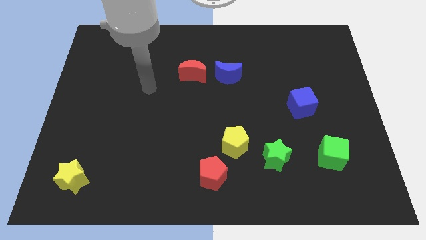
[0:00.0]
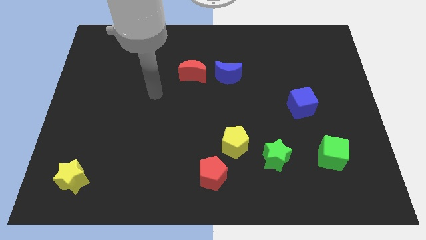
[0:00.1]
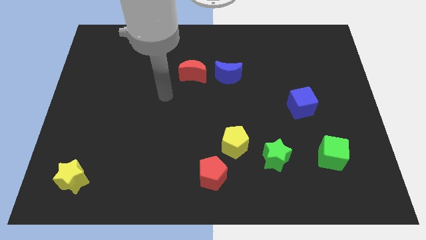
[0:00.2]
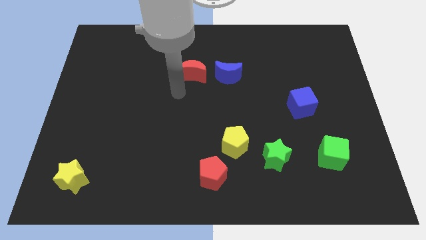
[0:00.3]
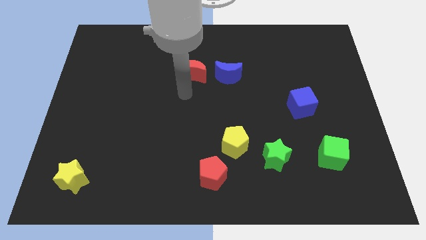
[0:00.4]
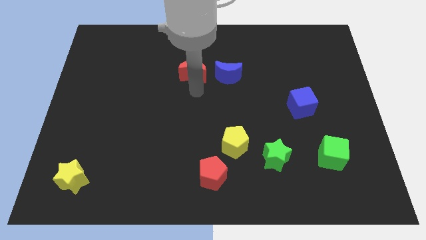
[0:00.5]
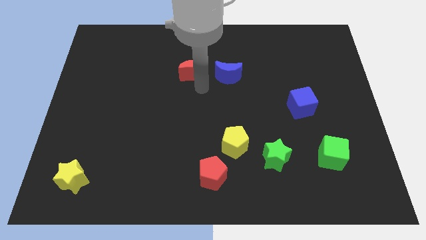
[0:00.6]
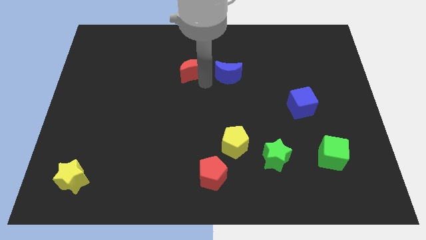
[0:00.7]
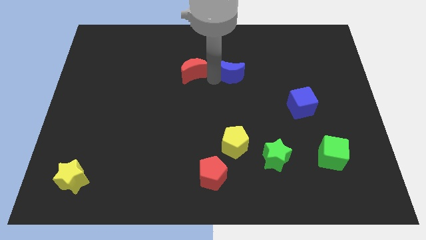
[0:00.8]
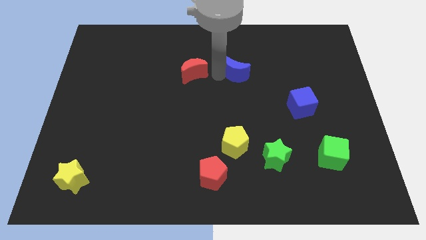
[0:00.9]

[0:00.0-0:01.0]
separate the red moon from the blue moon

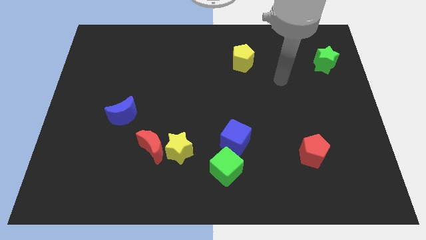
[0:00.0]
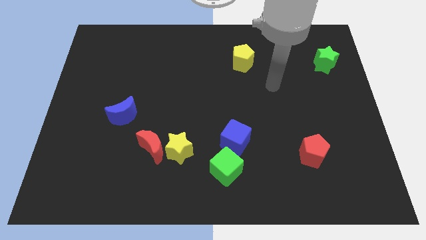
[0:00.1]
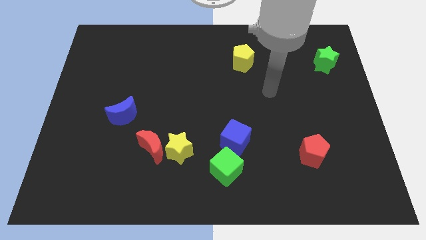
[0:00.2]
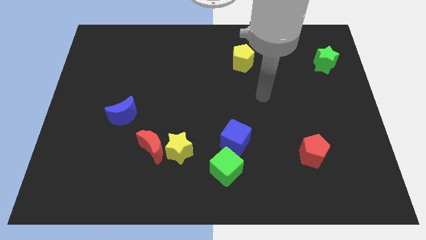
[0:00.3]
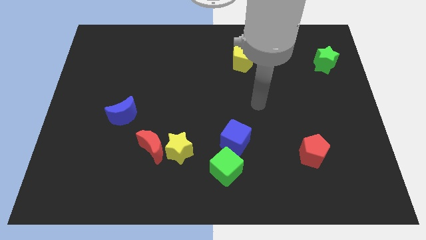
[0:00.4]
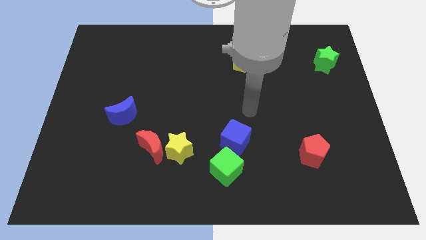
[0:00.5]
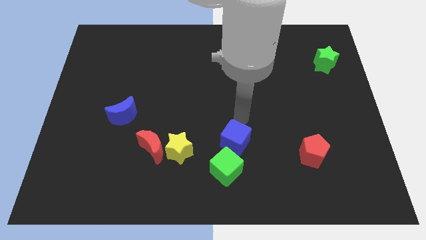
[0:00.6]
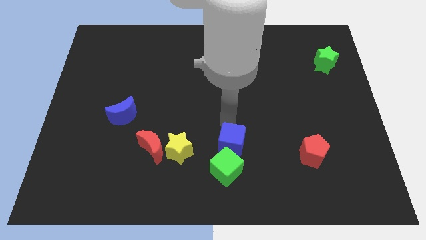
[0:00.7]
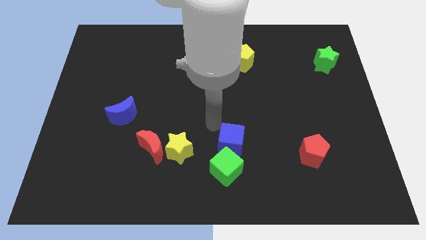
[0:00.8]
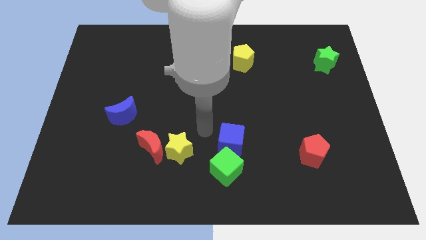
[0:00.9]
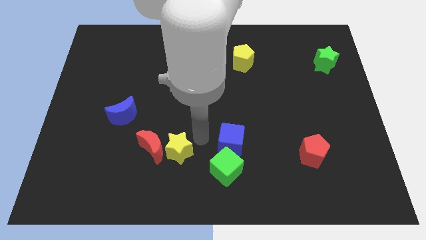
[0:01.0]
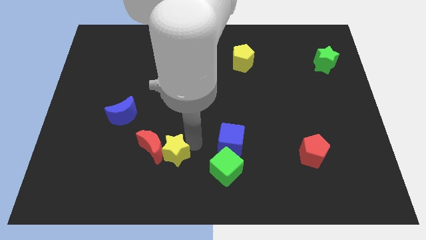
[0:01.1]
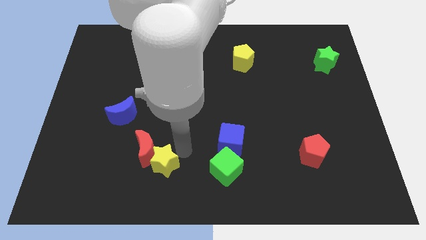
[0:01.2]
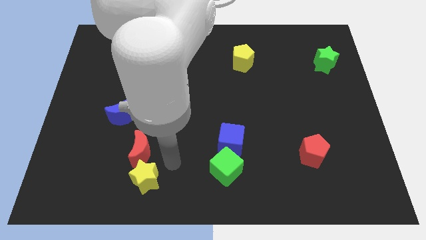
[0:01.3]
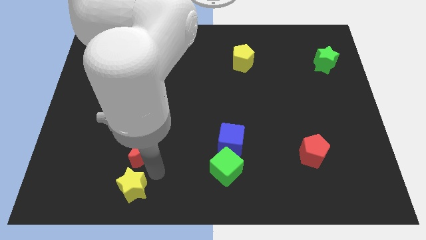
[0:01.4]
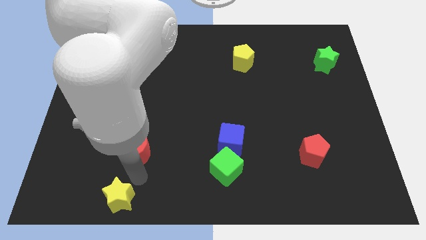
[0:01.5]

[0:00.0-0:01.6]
separate the red moon from the yellow star

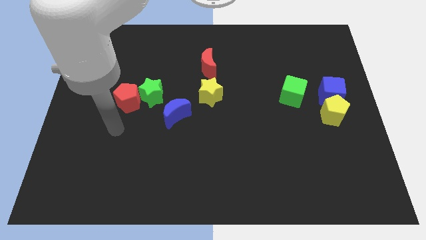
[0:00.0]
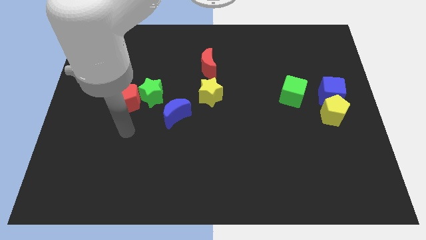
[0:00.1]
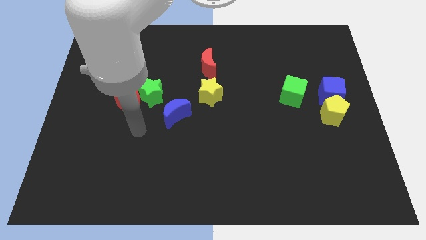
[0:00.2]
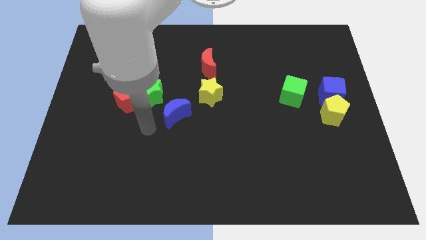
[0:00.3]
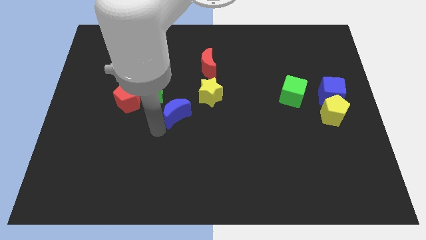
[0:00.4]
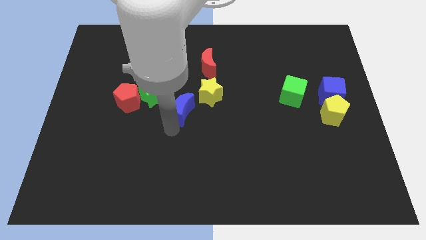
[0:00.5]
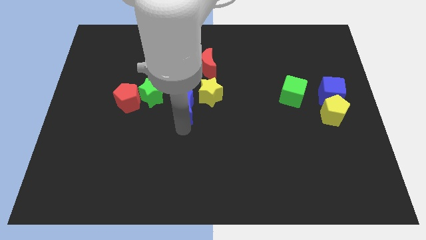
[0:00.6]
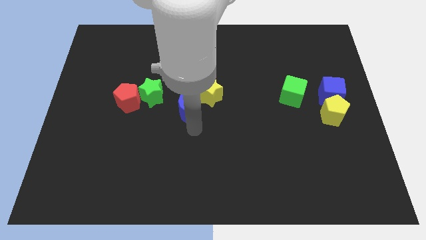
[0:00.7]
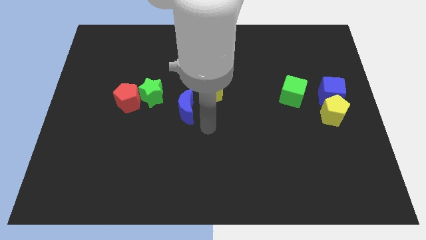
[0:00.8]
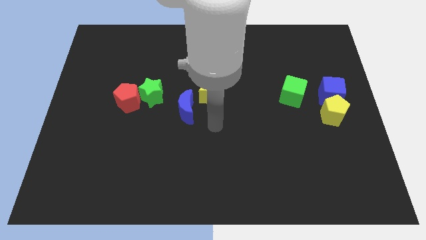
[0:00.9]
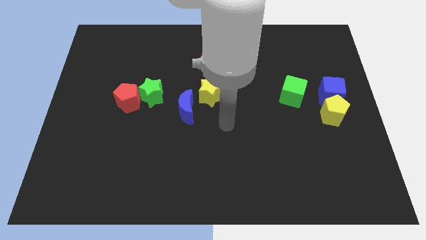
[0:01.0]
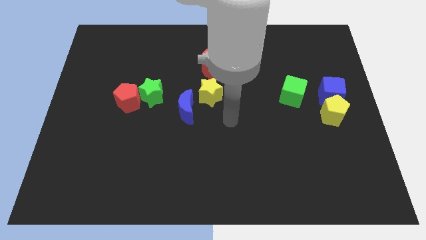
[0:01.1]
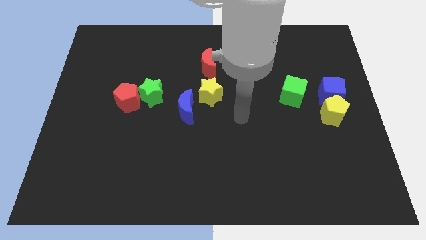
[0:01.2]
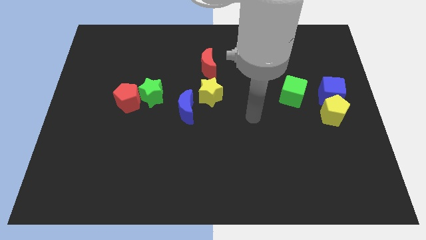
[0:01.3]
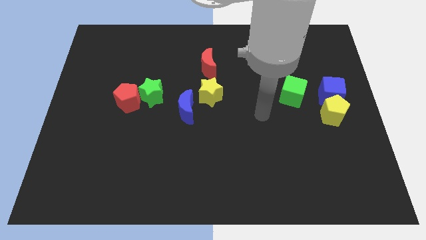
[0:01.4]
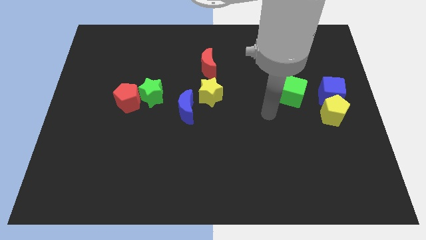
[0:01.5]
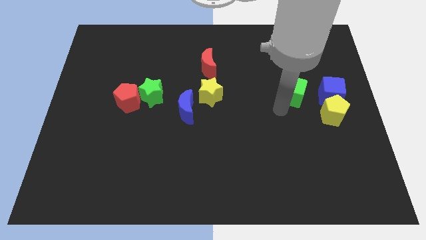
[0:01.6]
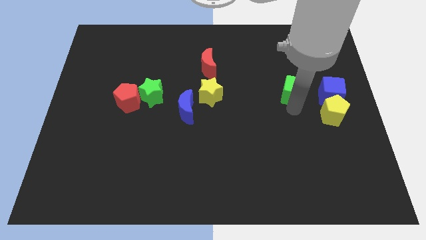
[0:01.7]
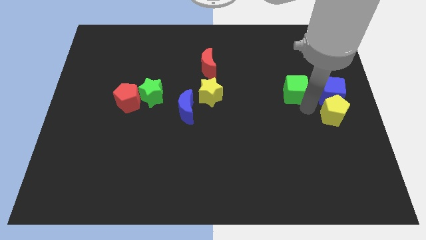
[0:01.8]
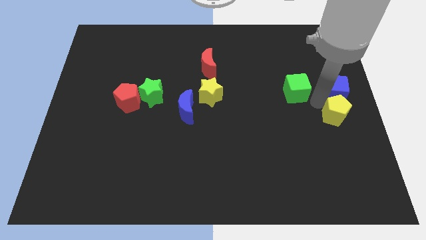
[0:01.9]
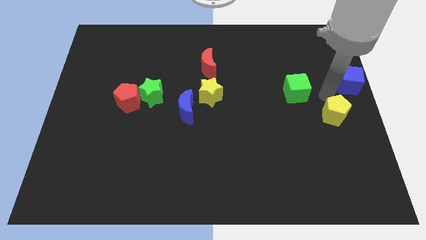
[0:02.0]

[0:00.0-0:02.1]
pull the yellow pentagon apart from the blue cube

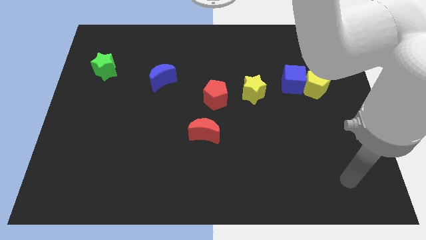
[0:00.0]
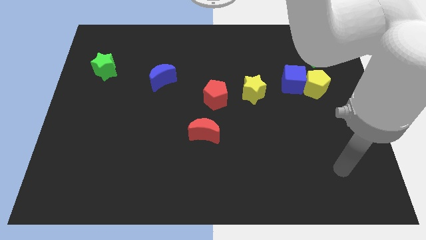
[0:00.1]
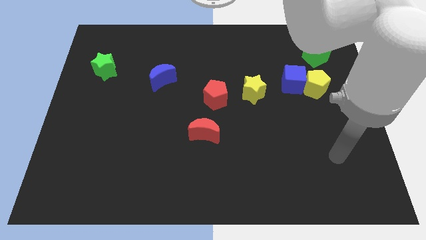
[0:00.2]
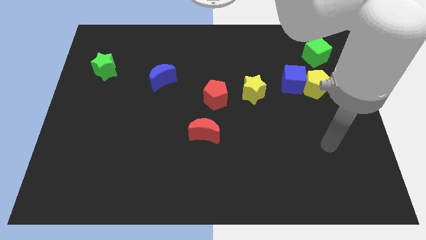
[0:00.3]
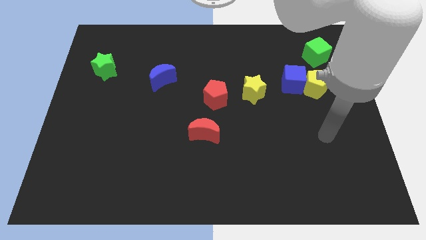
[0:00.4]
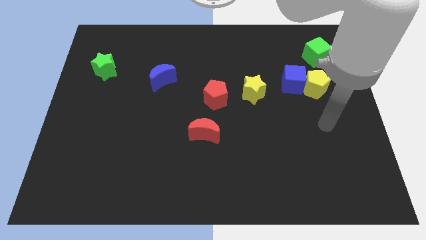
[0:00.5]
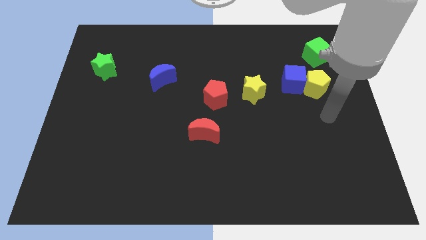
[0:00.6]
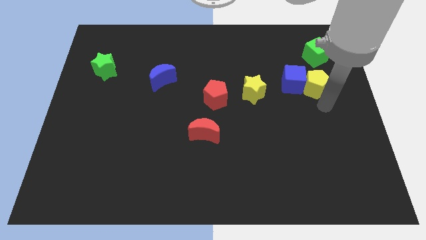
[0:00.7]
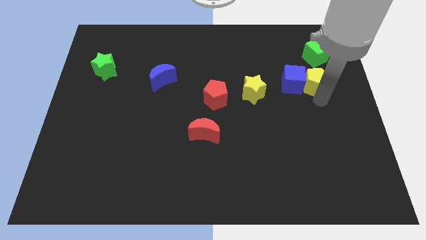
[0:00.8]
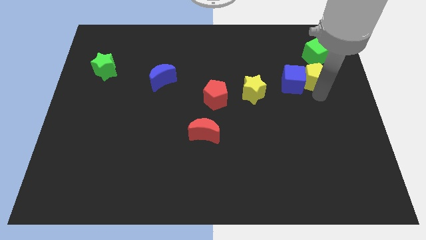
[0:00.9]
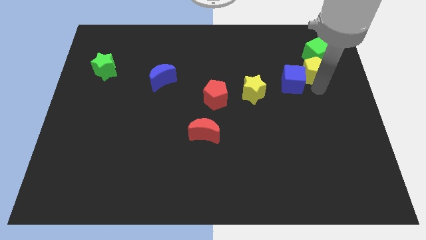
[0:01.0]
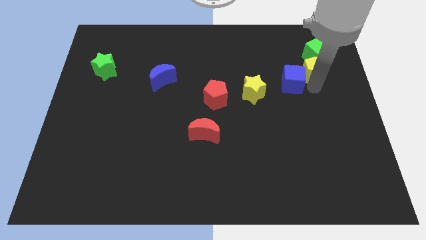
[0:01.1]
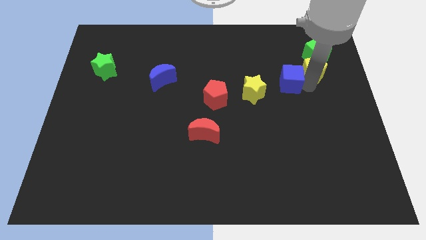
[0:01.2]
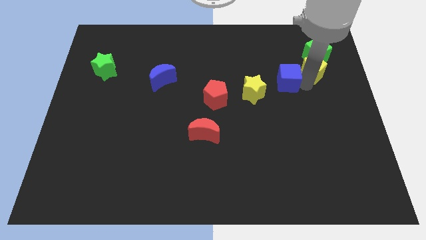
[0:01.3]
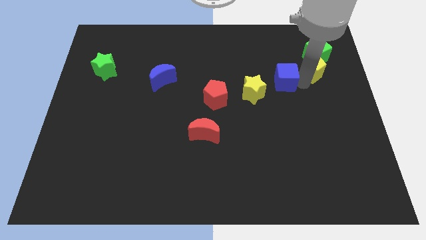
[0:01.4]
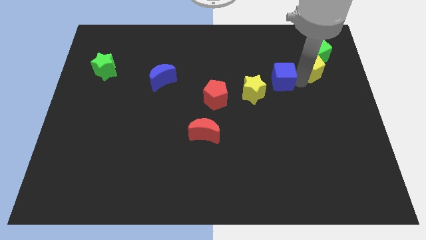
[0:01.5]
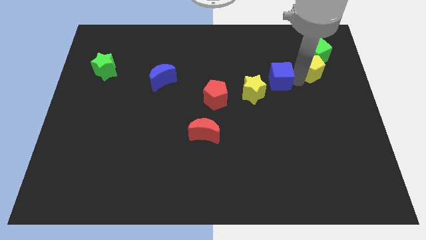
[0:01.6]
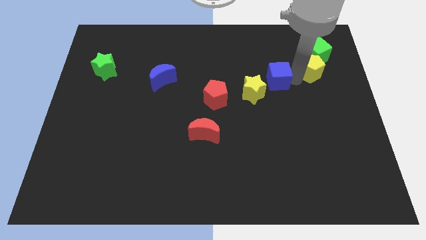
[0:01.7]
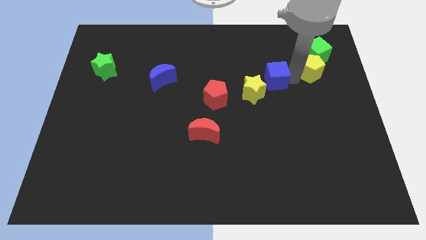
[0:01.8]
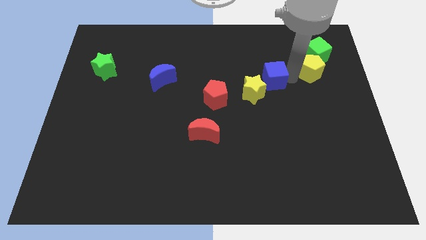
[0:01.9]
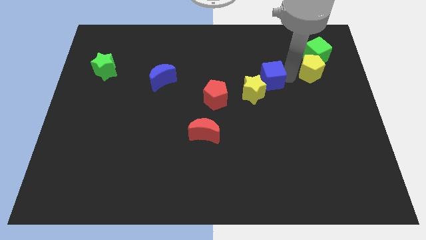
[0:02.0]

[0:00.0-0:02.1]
move the blue cube away from the yellow pentagon

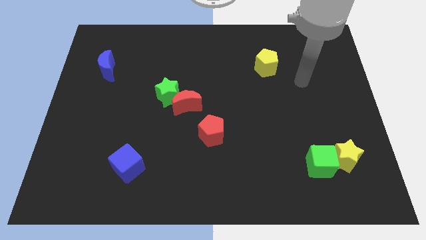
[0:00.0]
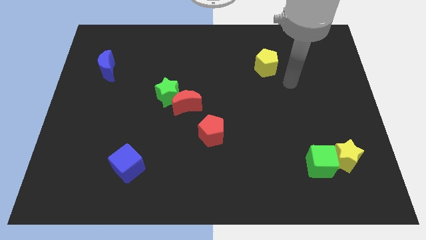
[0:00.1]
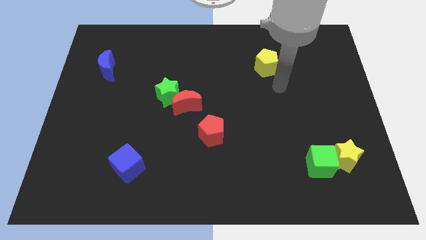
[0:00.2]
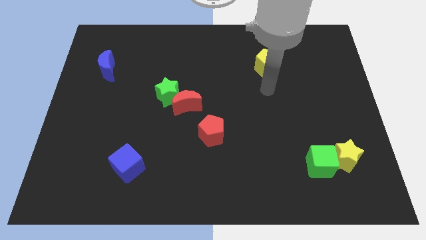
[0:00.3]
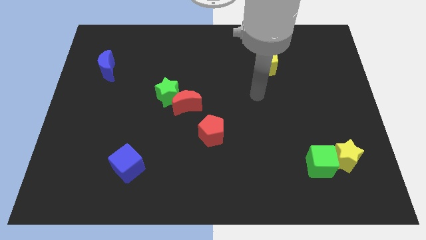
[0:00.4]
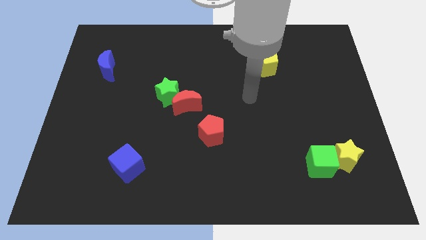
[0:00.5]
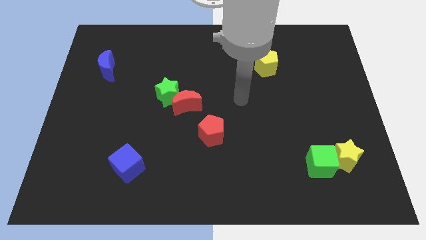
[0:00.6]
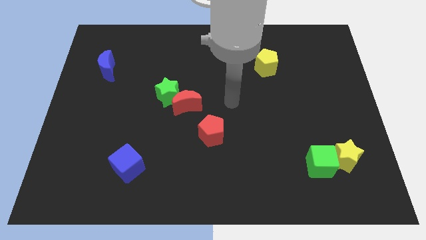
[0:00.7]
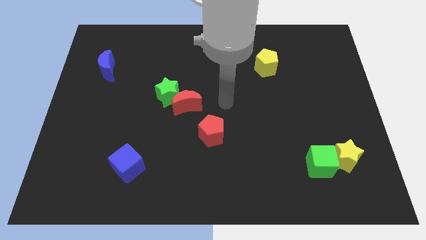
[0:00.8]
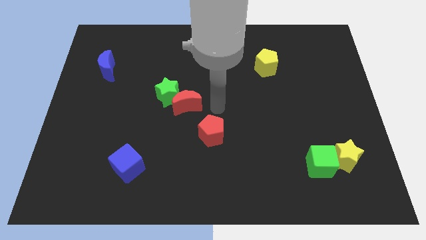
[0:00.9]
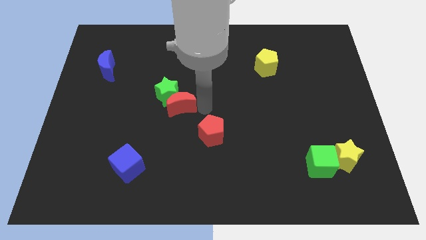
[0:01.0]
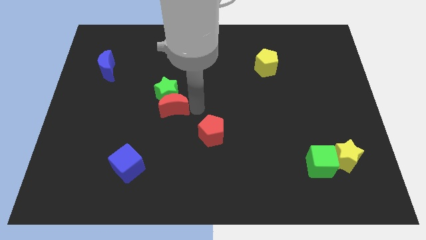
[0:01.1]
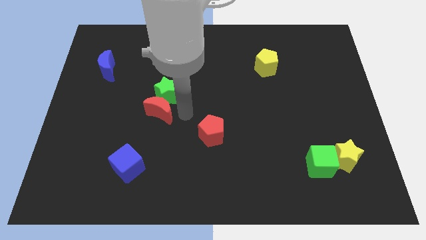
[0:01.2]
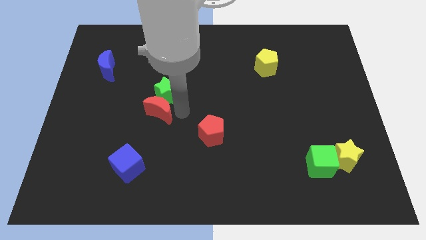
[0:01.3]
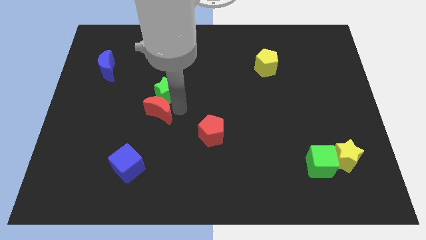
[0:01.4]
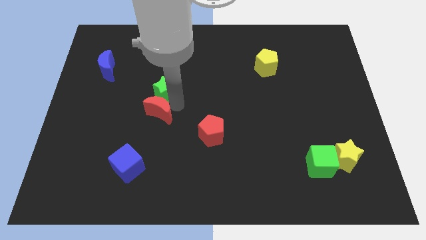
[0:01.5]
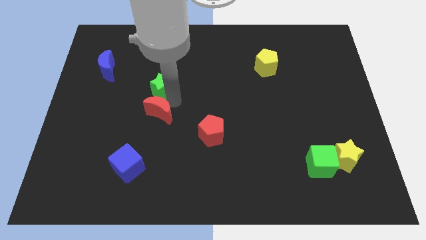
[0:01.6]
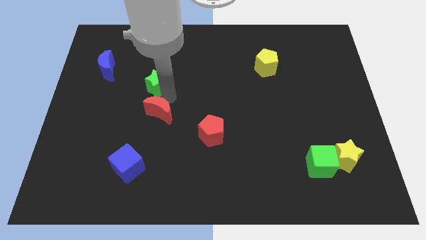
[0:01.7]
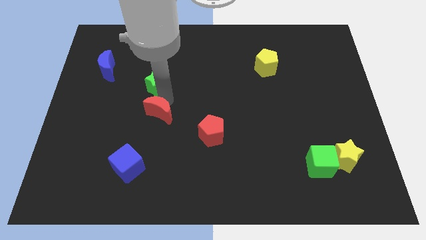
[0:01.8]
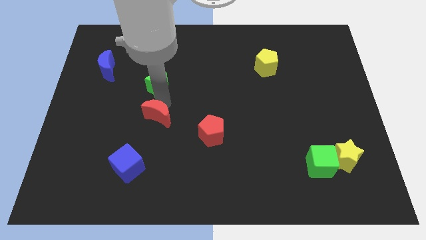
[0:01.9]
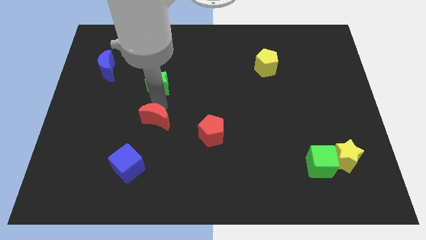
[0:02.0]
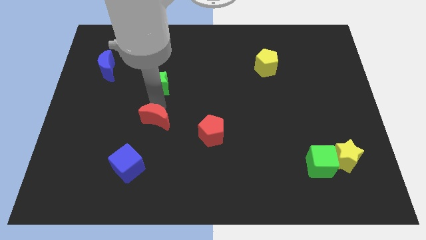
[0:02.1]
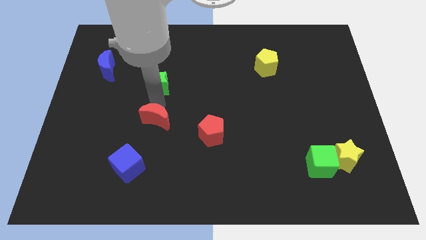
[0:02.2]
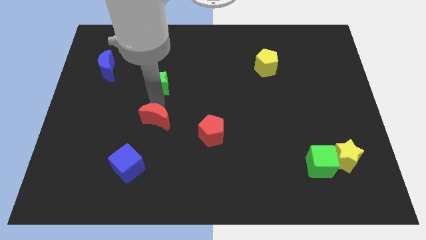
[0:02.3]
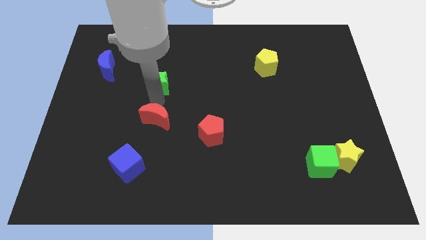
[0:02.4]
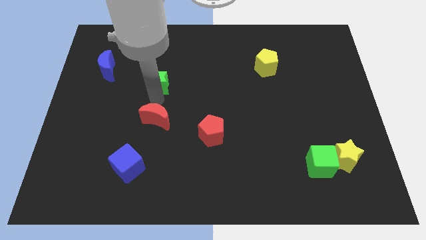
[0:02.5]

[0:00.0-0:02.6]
move the green star away from the red moon
